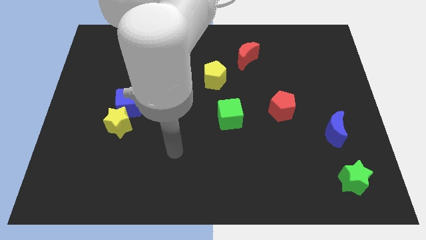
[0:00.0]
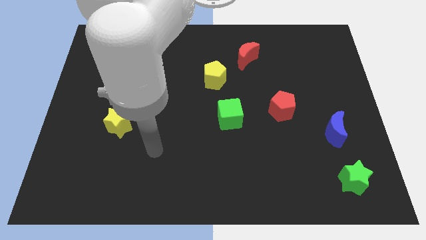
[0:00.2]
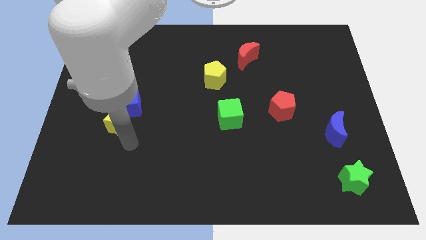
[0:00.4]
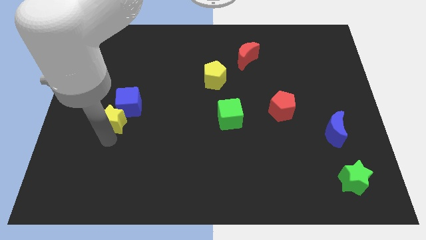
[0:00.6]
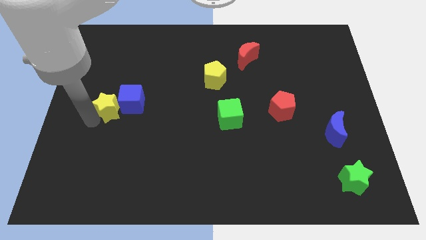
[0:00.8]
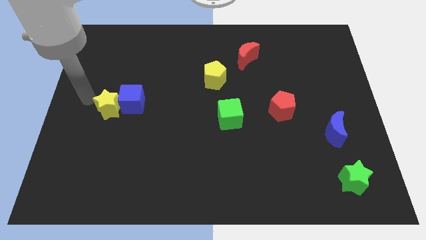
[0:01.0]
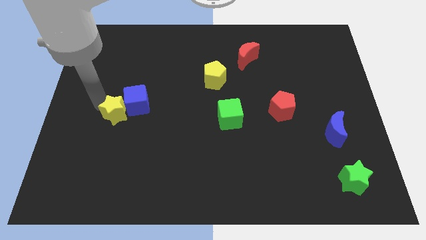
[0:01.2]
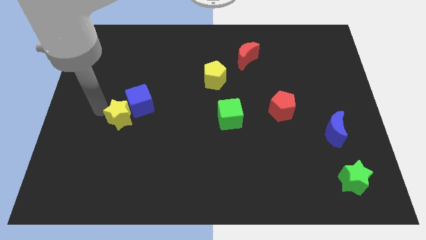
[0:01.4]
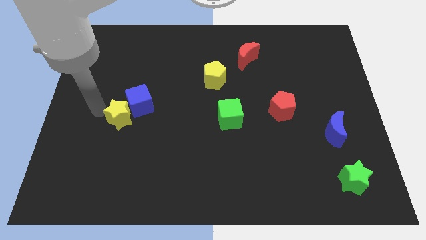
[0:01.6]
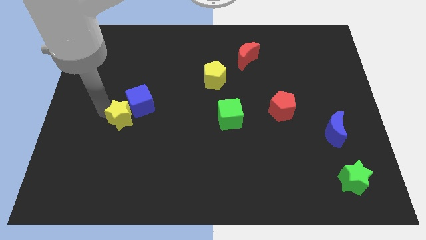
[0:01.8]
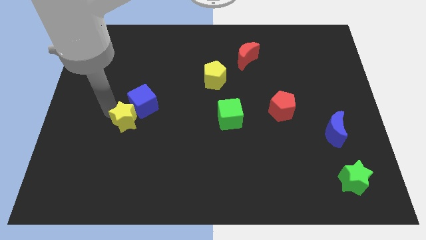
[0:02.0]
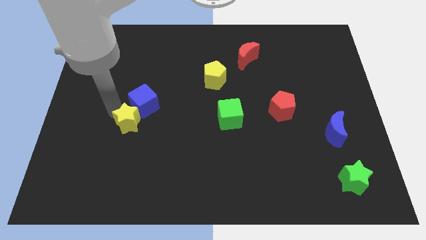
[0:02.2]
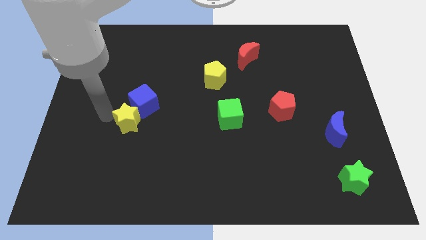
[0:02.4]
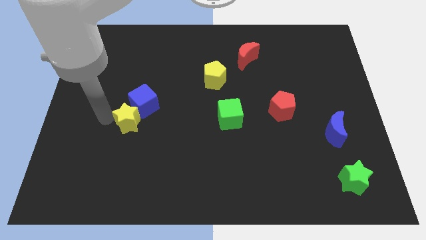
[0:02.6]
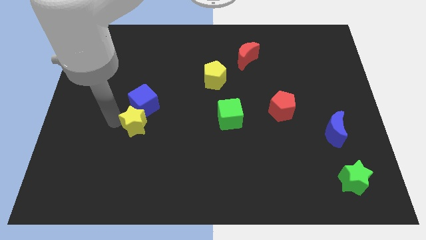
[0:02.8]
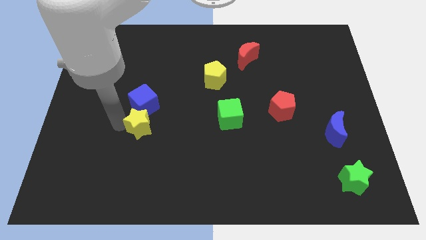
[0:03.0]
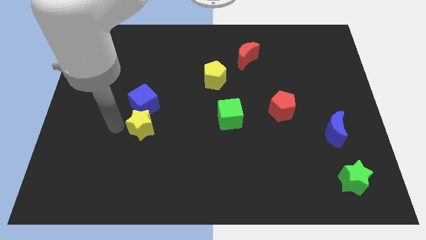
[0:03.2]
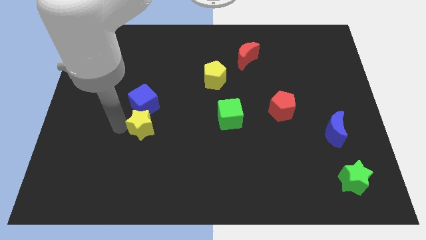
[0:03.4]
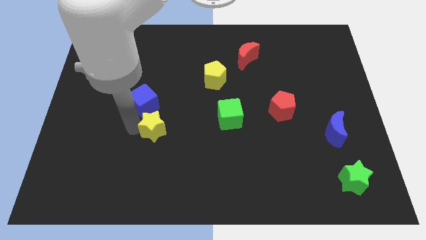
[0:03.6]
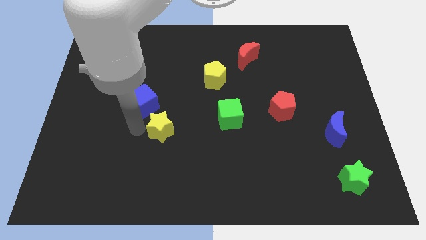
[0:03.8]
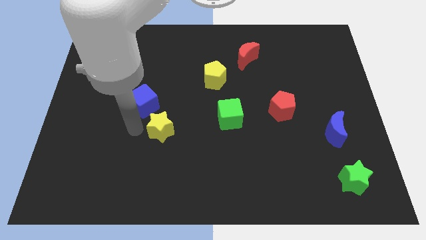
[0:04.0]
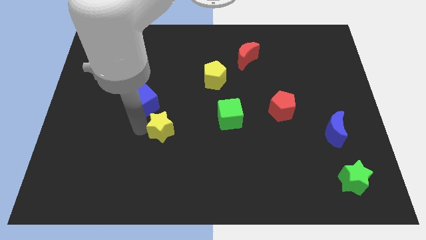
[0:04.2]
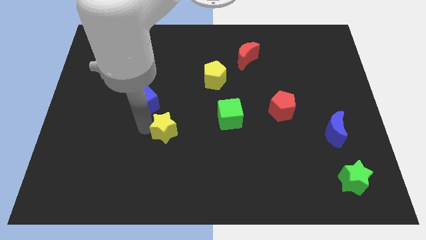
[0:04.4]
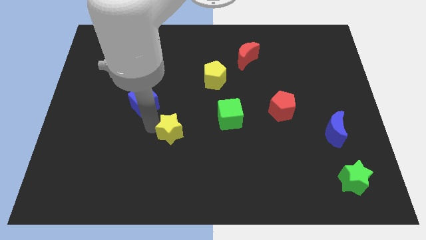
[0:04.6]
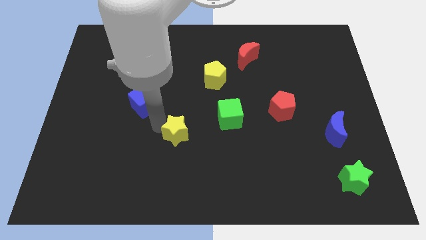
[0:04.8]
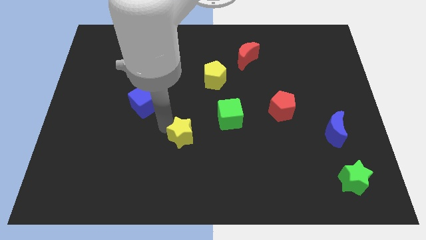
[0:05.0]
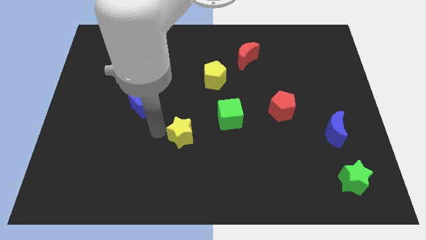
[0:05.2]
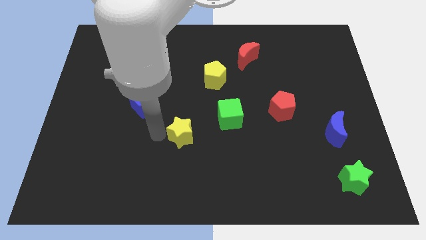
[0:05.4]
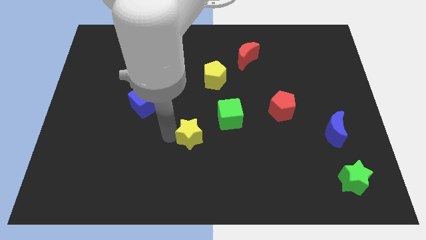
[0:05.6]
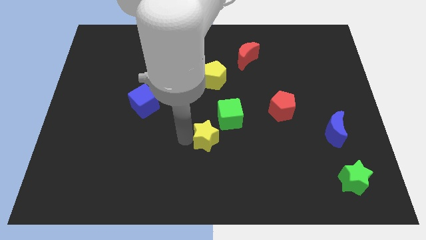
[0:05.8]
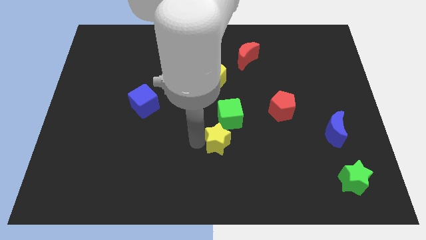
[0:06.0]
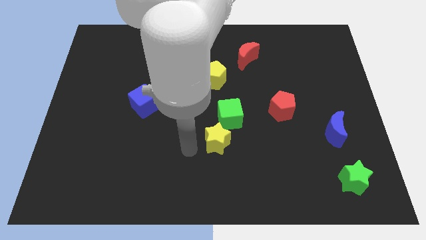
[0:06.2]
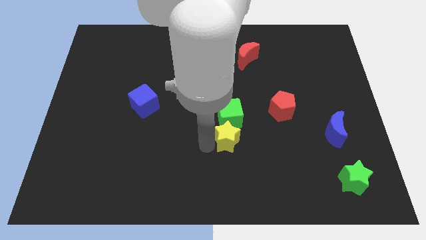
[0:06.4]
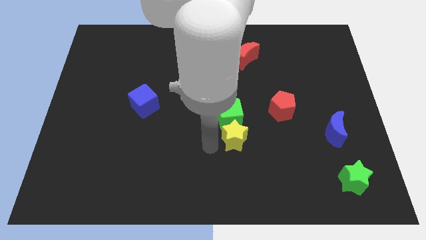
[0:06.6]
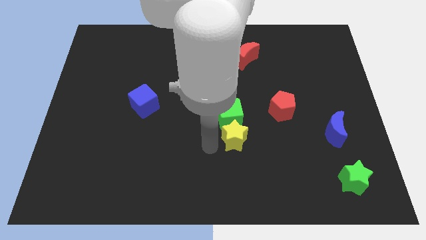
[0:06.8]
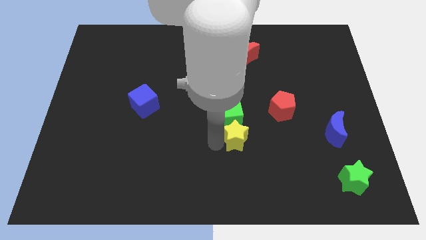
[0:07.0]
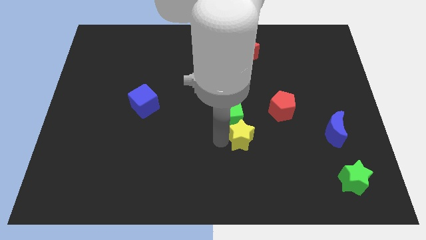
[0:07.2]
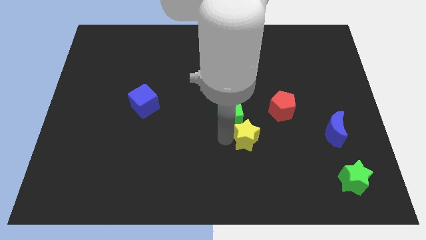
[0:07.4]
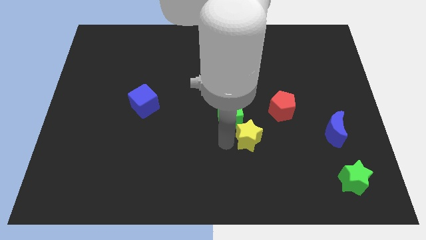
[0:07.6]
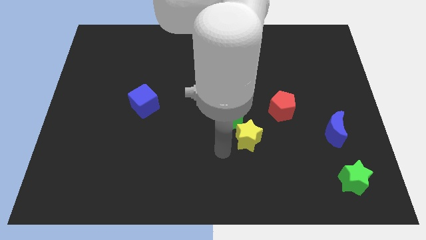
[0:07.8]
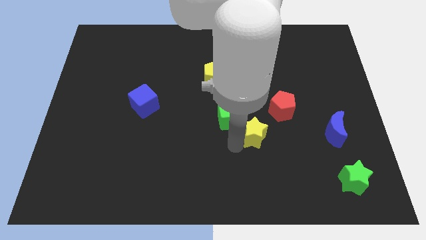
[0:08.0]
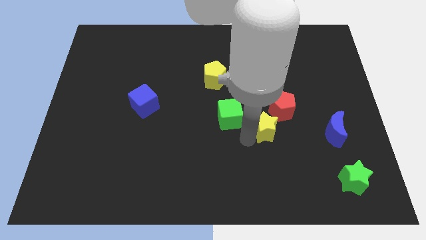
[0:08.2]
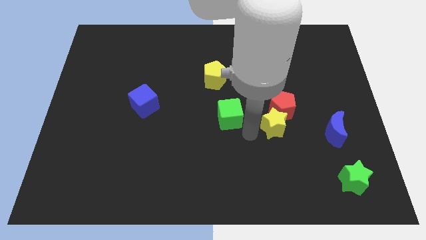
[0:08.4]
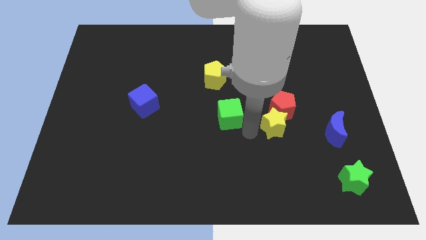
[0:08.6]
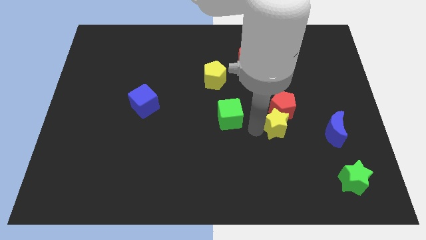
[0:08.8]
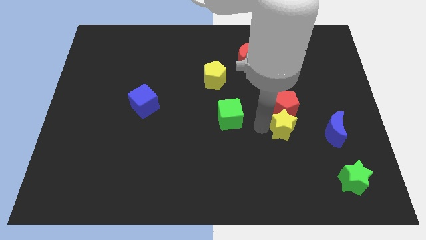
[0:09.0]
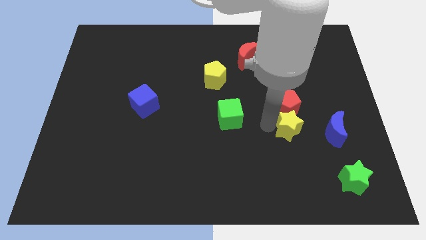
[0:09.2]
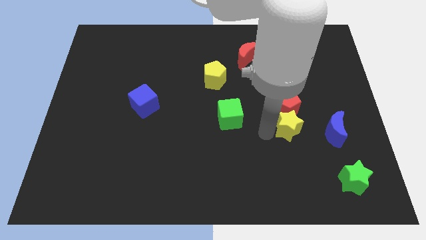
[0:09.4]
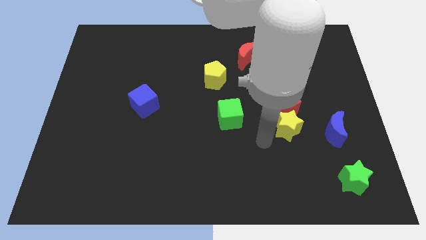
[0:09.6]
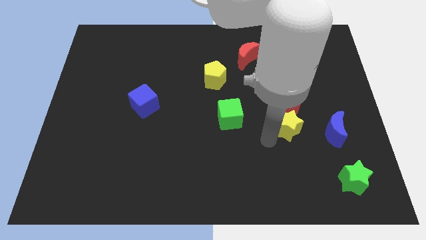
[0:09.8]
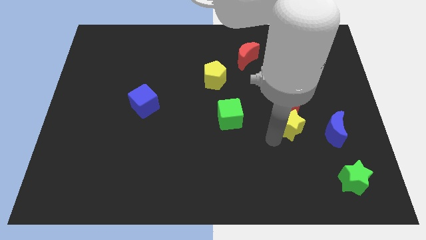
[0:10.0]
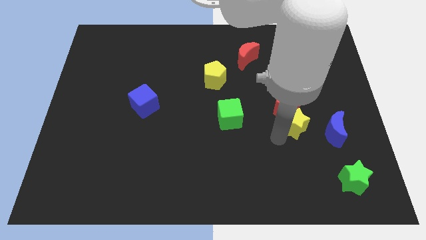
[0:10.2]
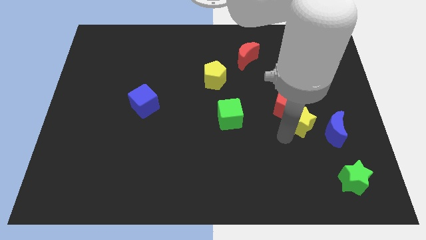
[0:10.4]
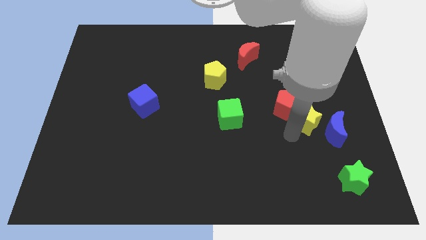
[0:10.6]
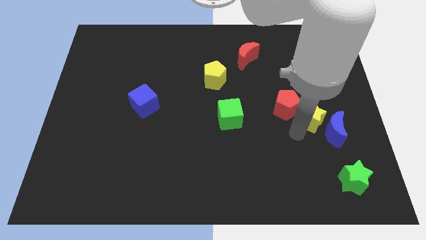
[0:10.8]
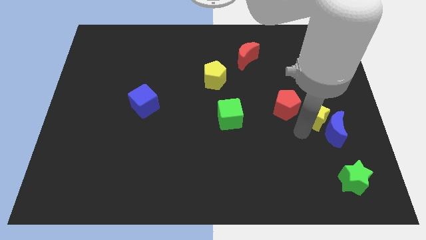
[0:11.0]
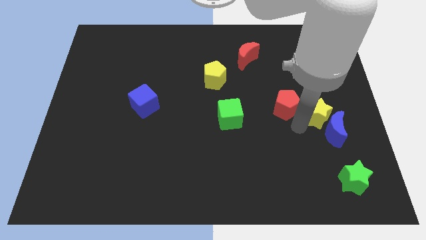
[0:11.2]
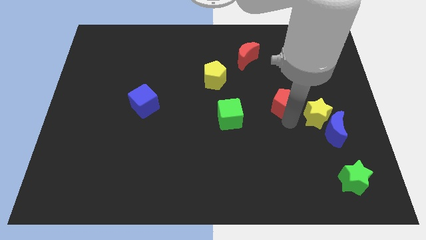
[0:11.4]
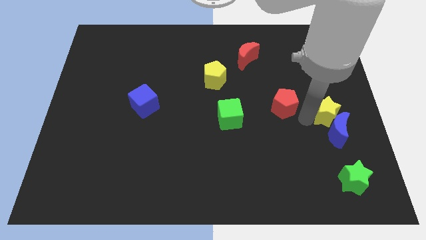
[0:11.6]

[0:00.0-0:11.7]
slide the yellow star to the right side

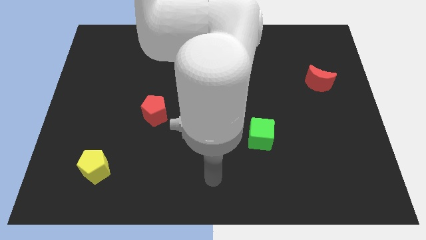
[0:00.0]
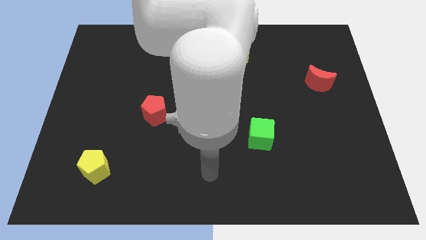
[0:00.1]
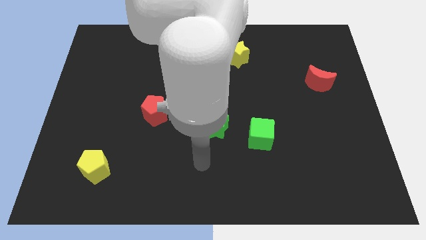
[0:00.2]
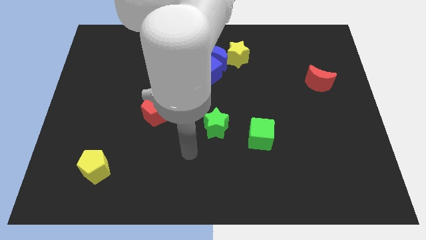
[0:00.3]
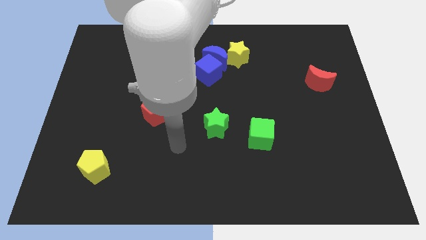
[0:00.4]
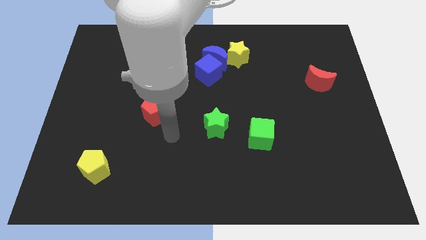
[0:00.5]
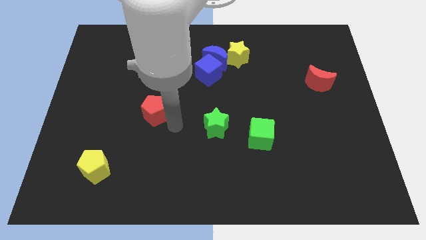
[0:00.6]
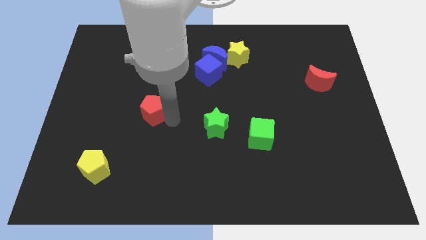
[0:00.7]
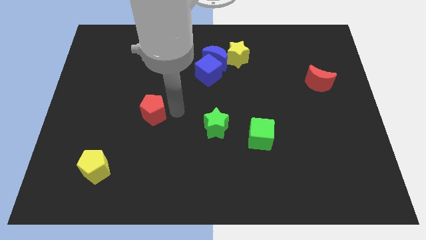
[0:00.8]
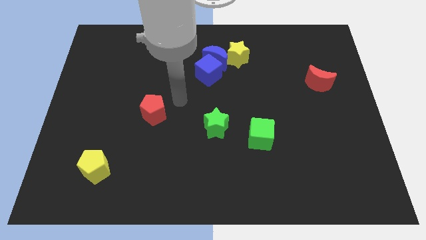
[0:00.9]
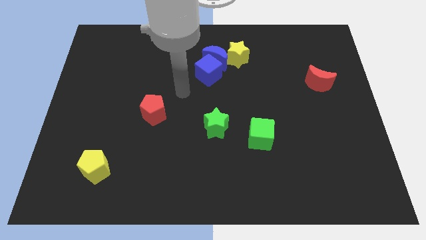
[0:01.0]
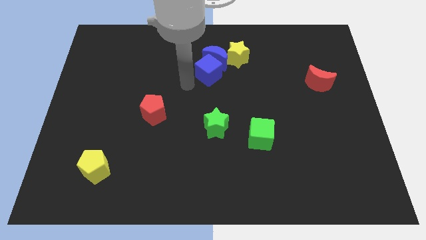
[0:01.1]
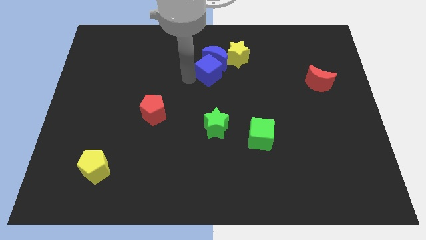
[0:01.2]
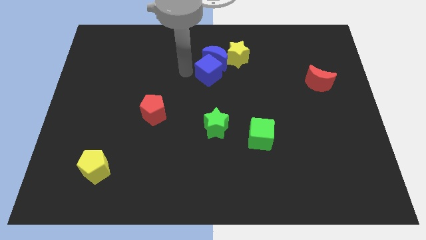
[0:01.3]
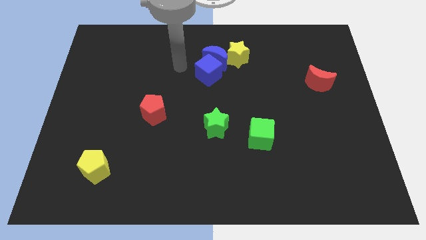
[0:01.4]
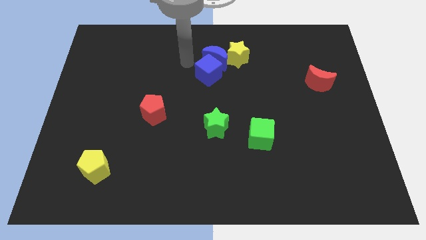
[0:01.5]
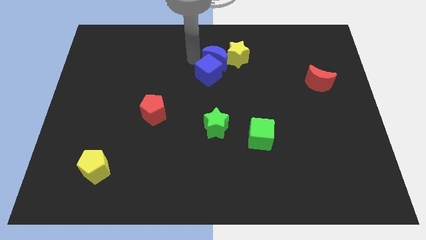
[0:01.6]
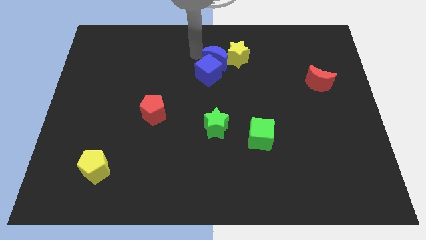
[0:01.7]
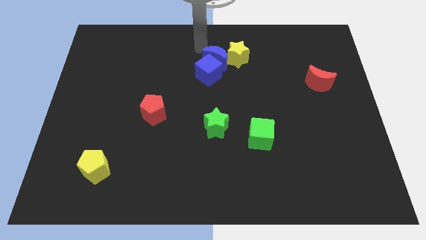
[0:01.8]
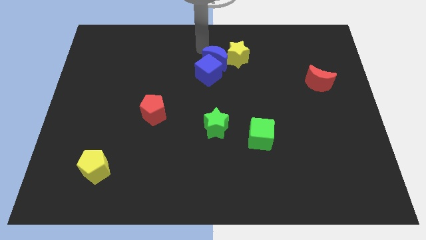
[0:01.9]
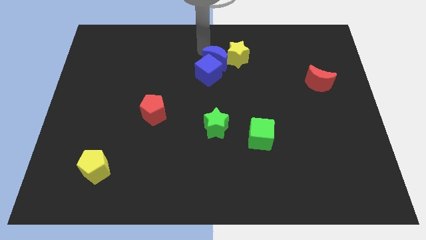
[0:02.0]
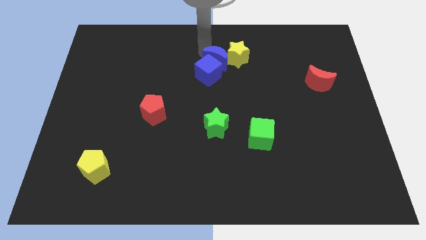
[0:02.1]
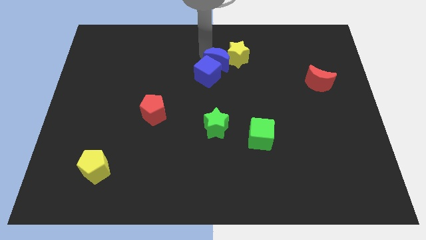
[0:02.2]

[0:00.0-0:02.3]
push the blue moon to the center
